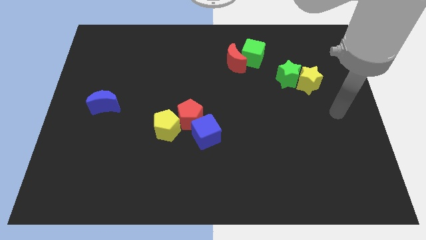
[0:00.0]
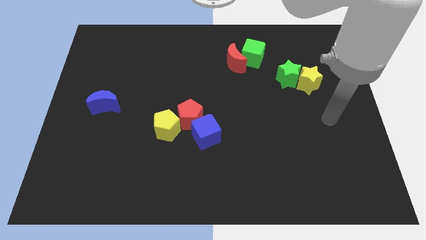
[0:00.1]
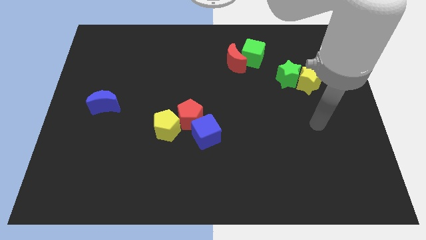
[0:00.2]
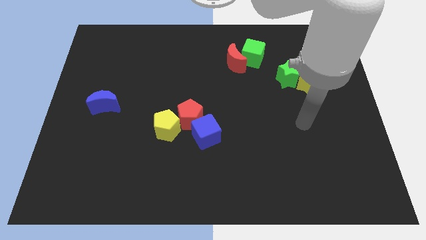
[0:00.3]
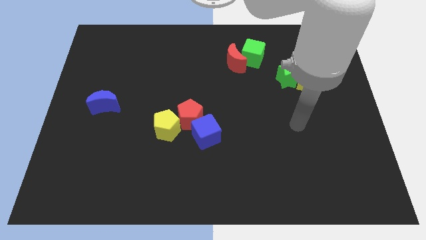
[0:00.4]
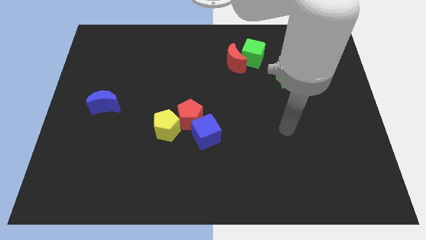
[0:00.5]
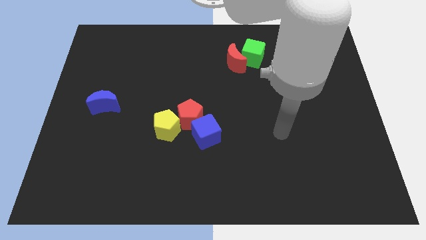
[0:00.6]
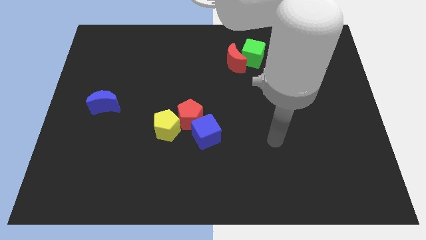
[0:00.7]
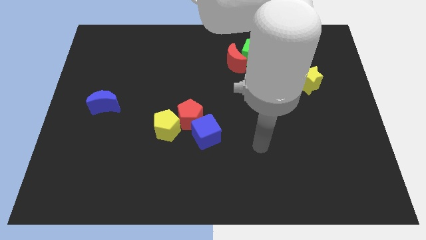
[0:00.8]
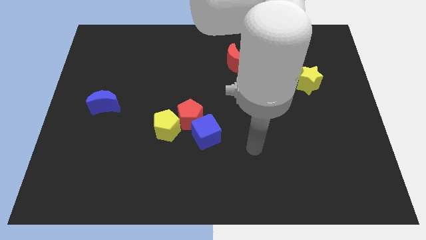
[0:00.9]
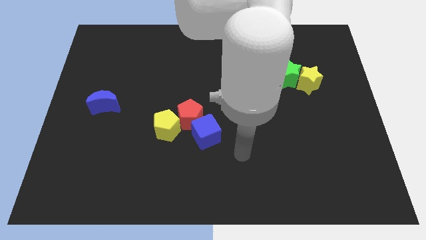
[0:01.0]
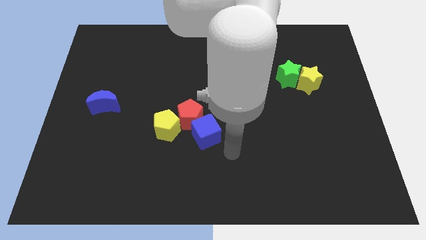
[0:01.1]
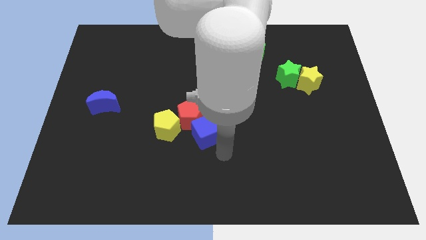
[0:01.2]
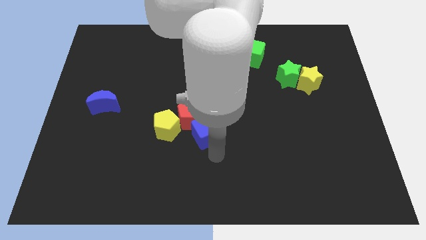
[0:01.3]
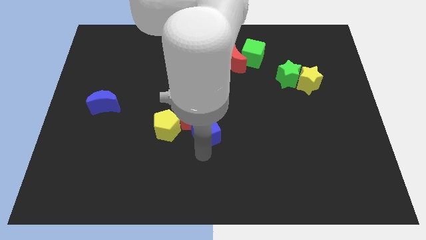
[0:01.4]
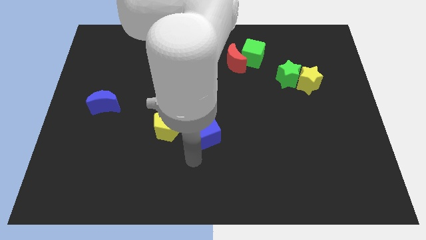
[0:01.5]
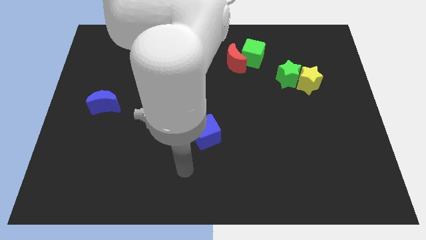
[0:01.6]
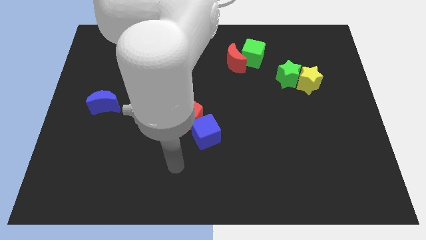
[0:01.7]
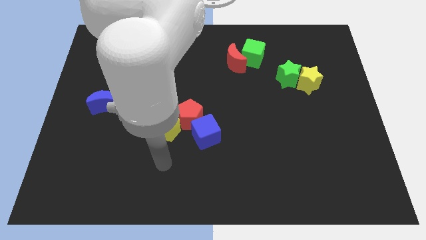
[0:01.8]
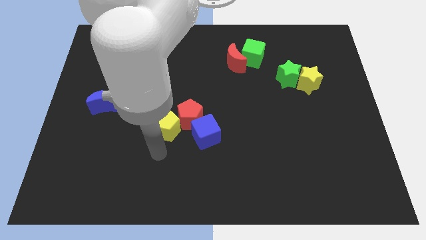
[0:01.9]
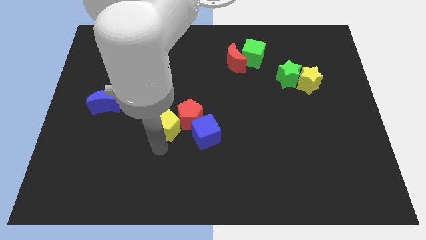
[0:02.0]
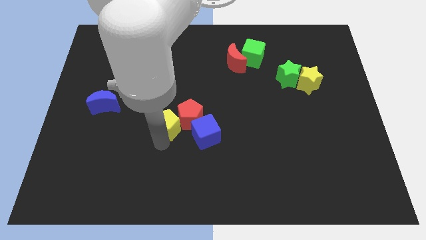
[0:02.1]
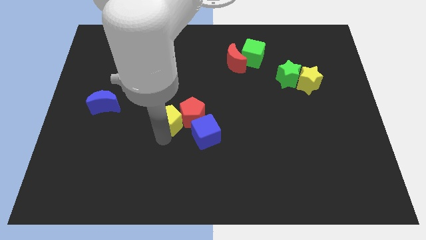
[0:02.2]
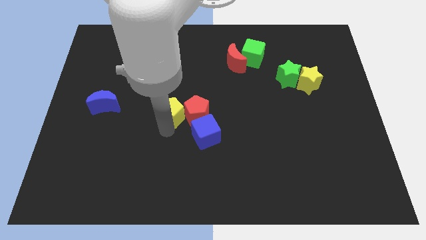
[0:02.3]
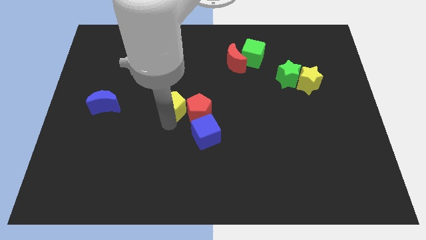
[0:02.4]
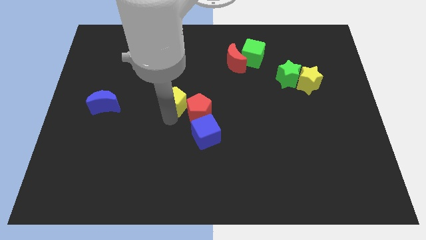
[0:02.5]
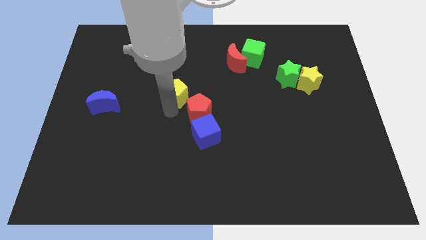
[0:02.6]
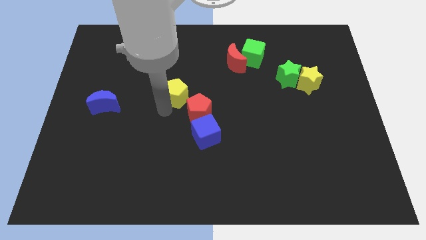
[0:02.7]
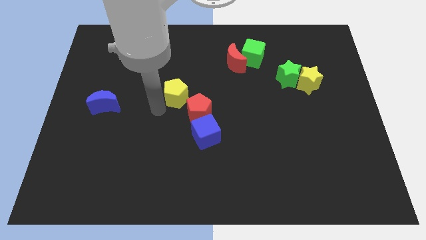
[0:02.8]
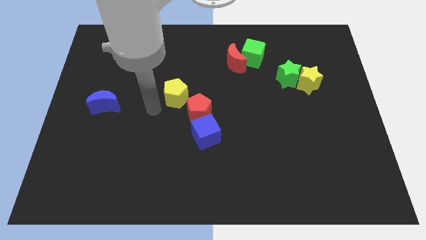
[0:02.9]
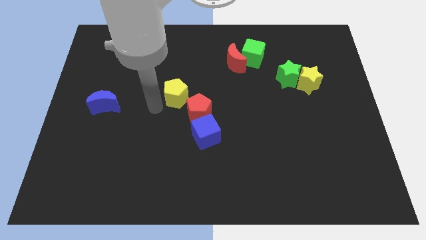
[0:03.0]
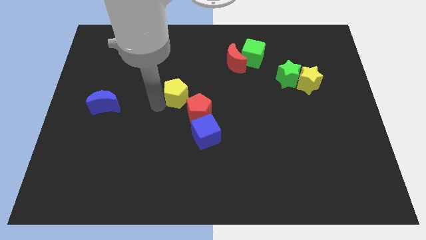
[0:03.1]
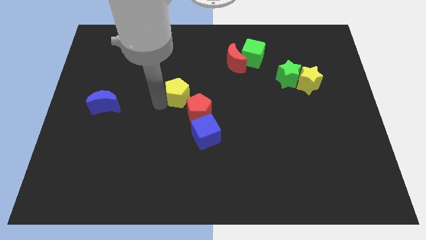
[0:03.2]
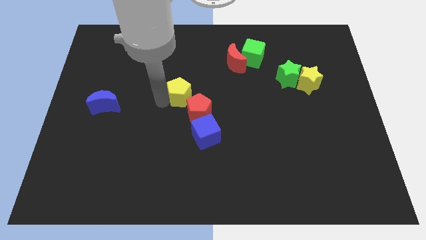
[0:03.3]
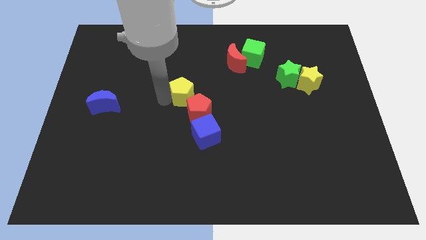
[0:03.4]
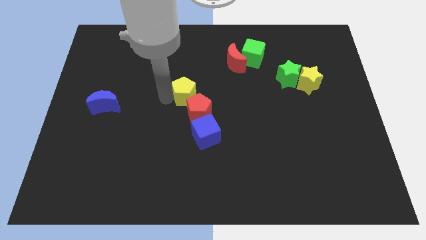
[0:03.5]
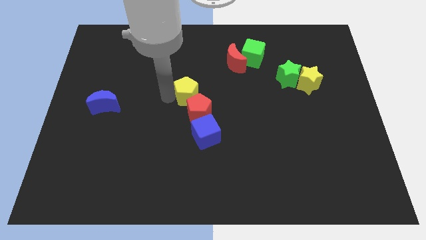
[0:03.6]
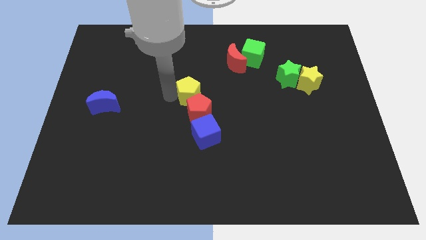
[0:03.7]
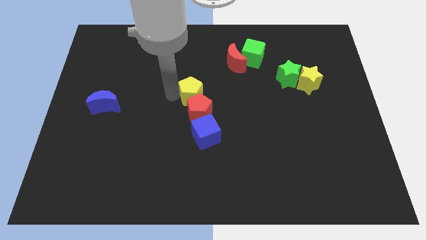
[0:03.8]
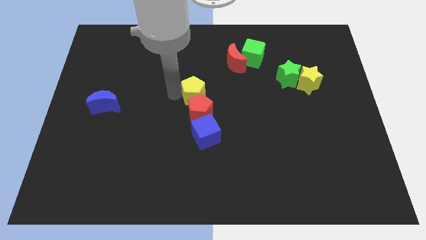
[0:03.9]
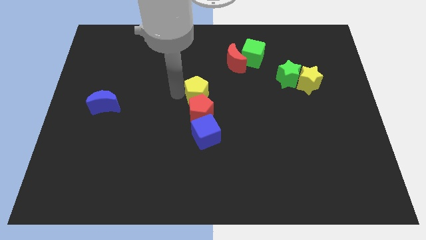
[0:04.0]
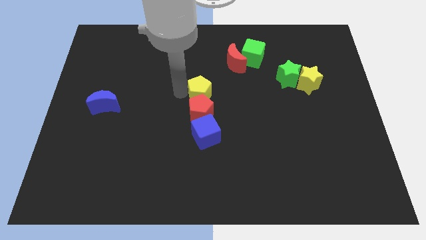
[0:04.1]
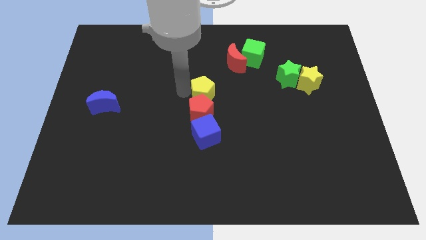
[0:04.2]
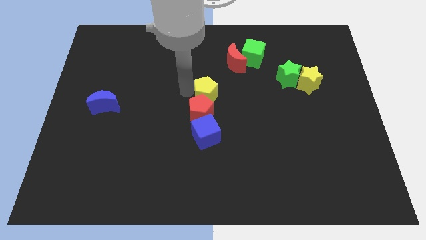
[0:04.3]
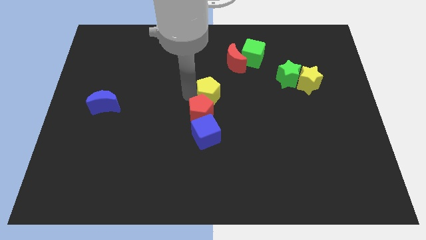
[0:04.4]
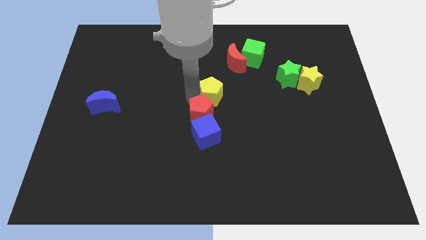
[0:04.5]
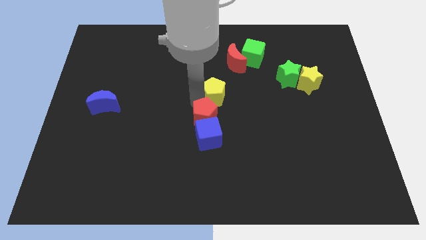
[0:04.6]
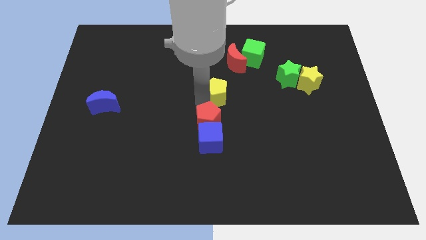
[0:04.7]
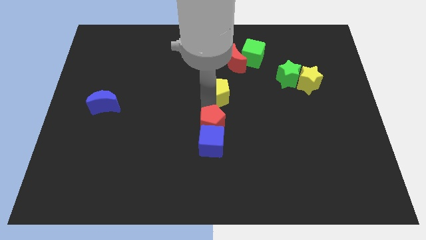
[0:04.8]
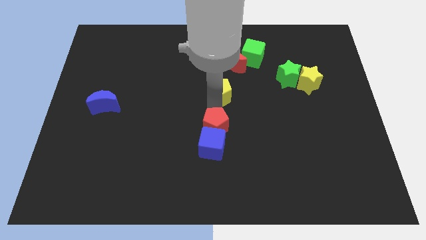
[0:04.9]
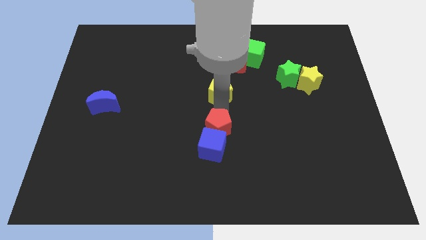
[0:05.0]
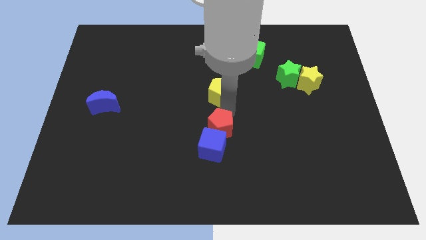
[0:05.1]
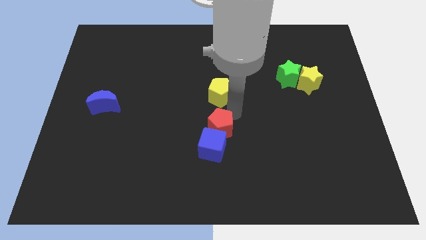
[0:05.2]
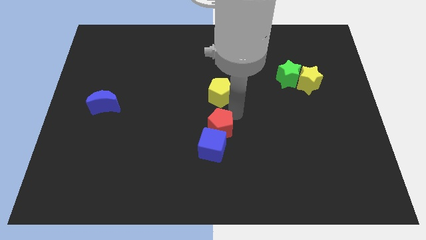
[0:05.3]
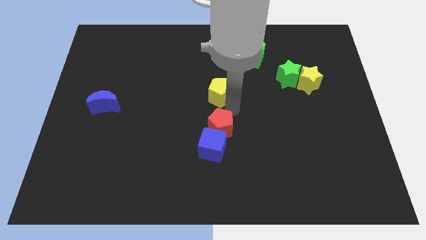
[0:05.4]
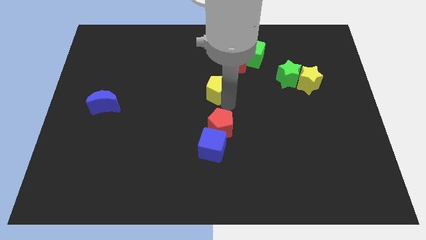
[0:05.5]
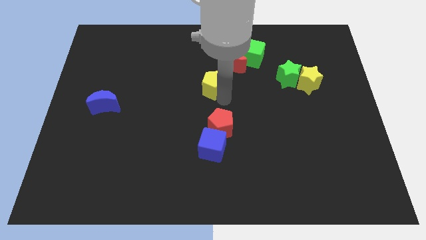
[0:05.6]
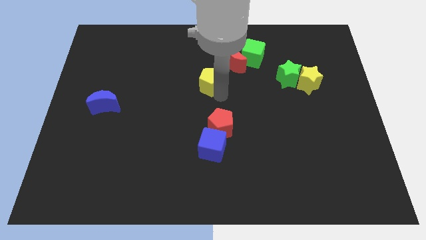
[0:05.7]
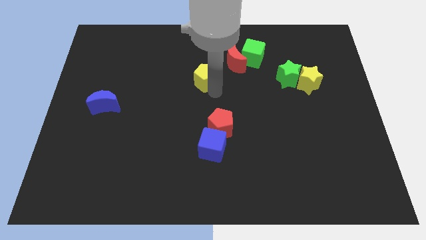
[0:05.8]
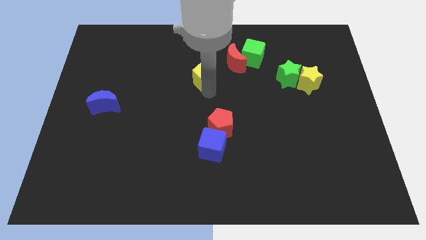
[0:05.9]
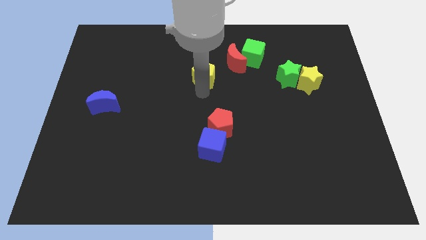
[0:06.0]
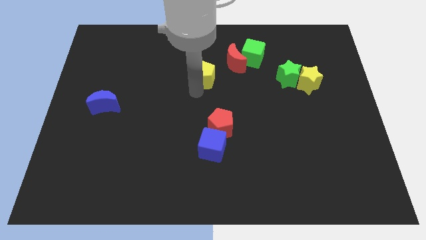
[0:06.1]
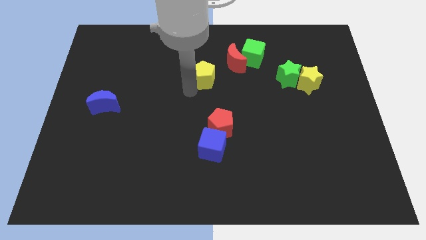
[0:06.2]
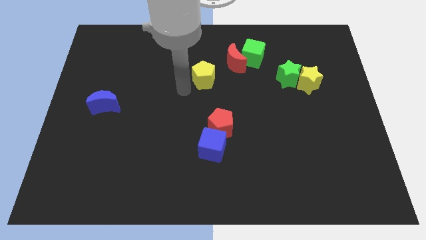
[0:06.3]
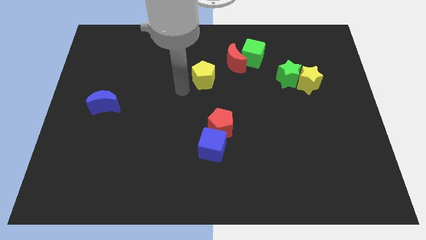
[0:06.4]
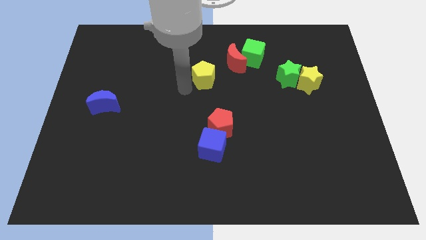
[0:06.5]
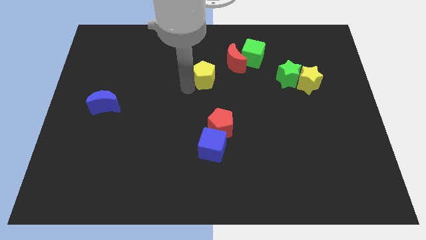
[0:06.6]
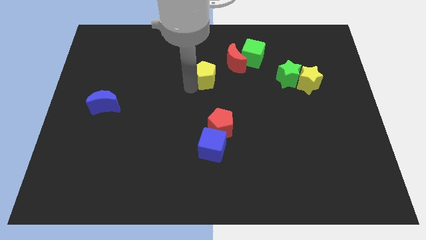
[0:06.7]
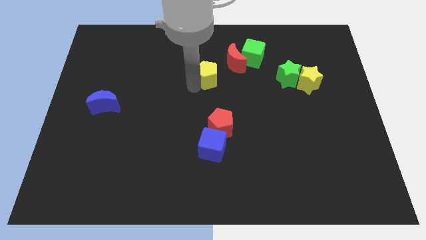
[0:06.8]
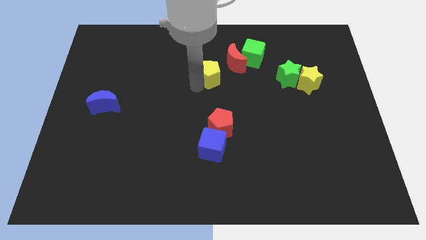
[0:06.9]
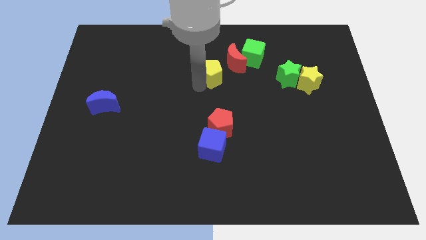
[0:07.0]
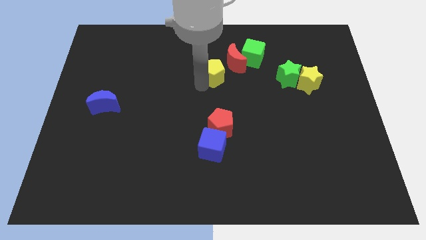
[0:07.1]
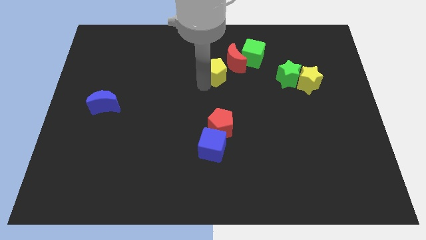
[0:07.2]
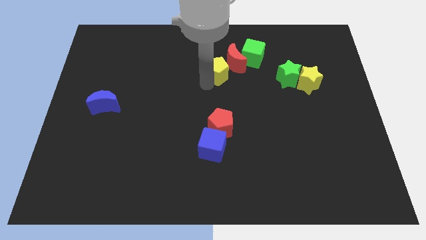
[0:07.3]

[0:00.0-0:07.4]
slide the yellow pentagon close to the red moon

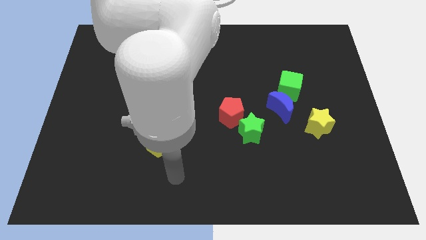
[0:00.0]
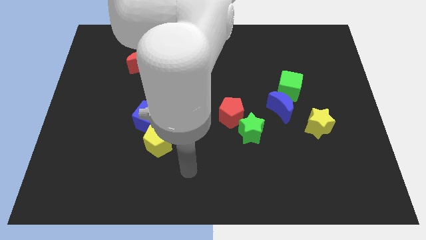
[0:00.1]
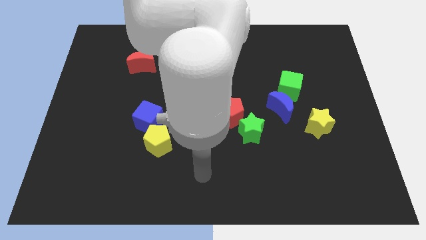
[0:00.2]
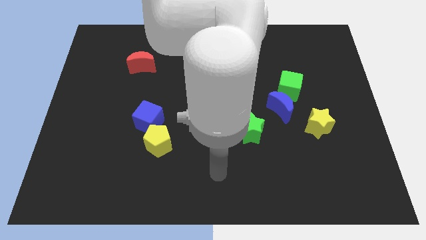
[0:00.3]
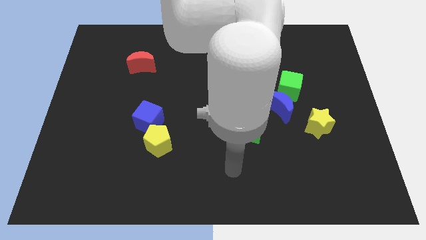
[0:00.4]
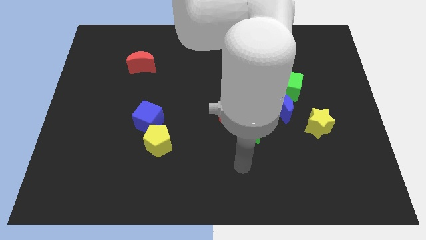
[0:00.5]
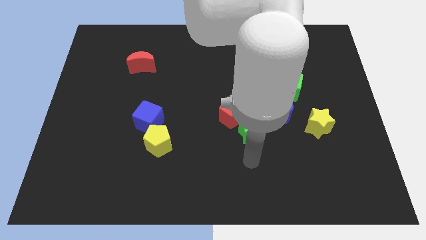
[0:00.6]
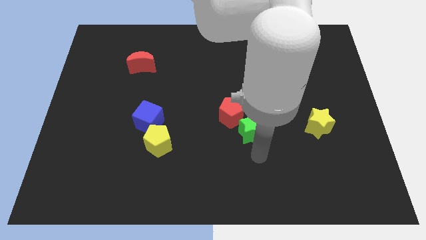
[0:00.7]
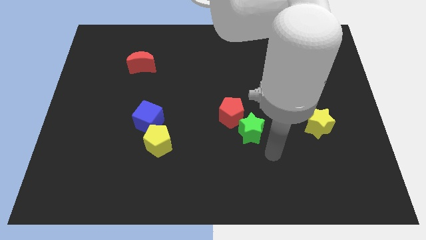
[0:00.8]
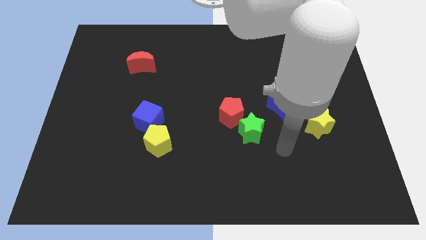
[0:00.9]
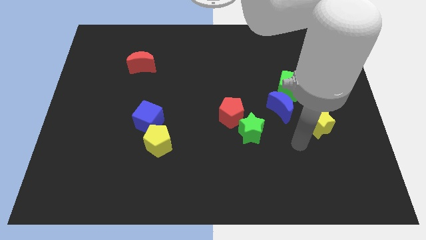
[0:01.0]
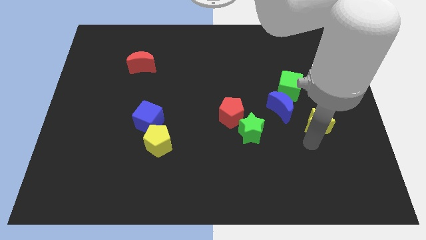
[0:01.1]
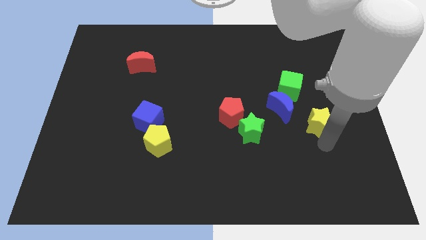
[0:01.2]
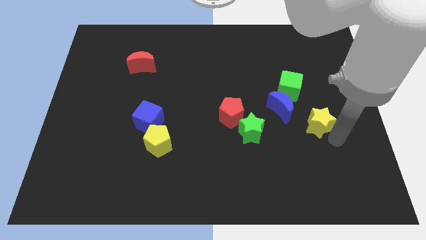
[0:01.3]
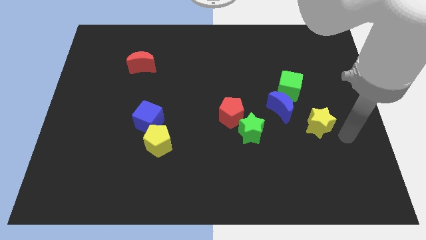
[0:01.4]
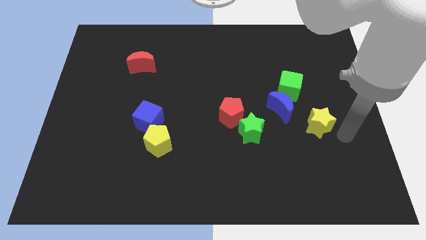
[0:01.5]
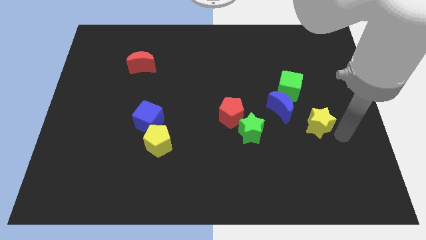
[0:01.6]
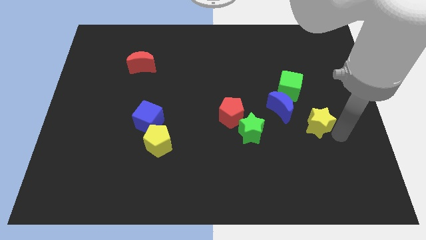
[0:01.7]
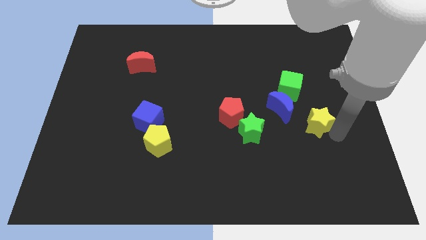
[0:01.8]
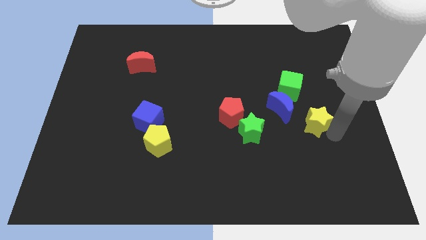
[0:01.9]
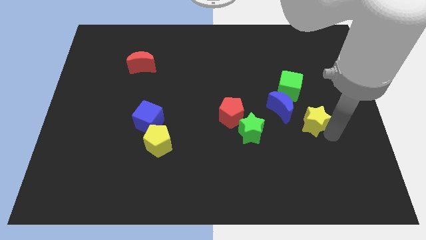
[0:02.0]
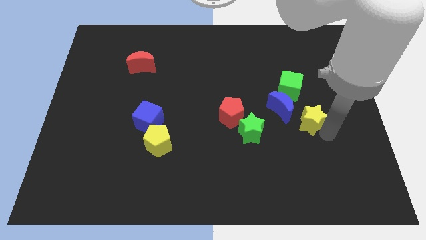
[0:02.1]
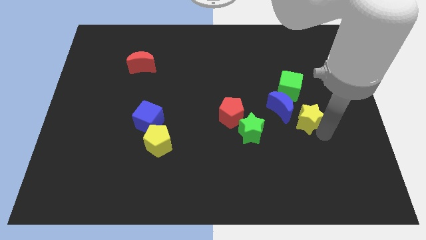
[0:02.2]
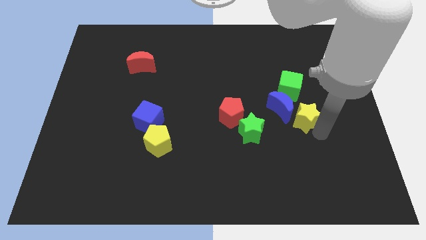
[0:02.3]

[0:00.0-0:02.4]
push the yellow star towards the blue moon
